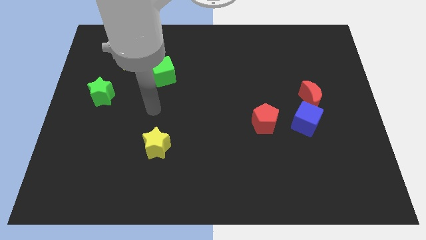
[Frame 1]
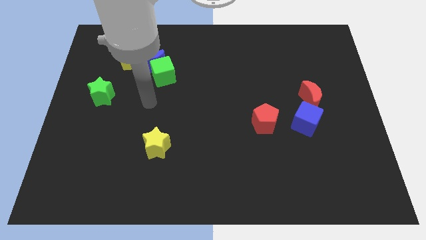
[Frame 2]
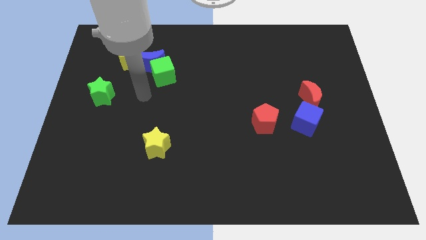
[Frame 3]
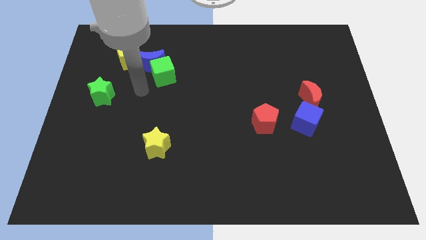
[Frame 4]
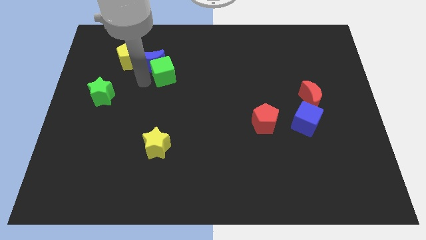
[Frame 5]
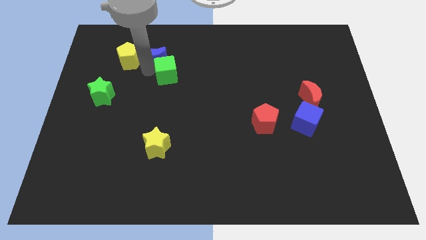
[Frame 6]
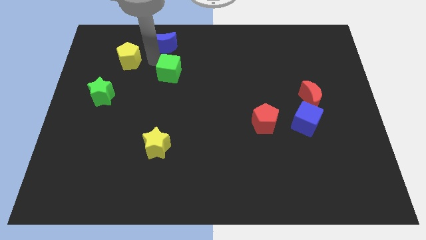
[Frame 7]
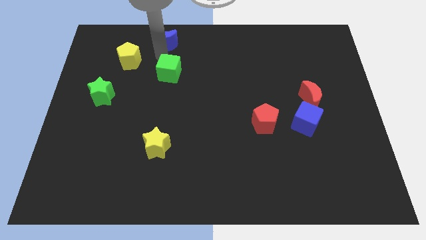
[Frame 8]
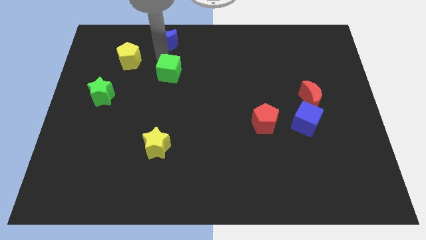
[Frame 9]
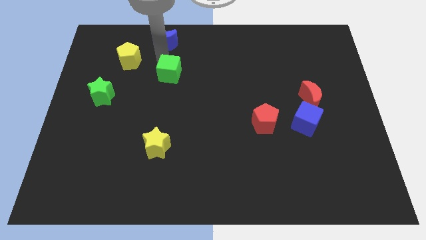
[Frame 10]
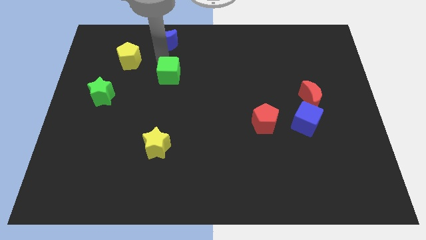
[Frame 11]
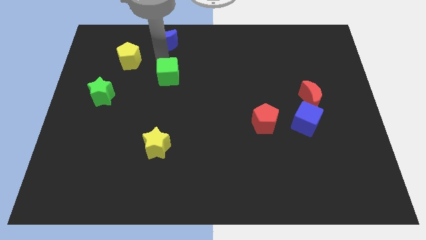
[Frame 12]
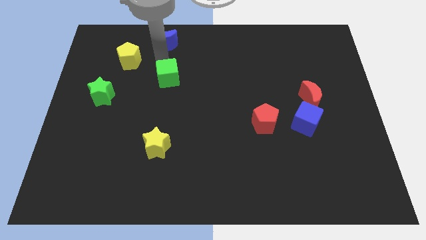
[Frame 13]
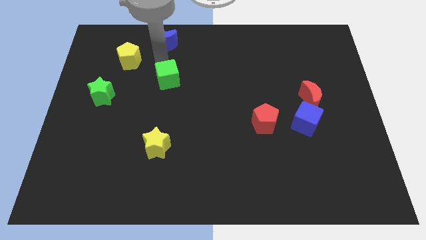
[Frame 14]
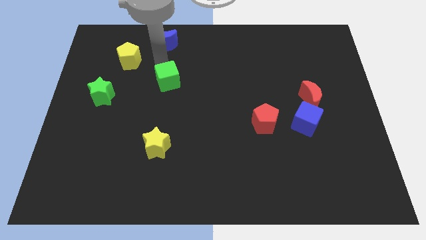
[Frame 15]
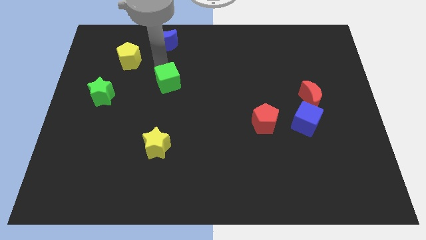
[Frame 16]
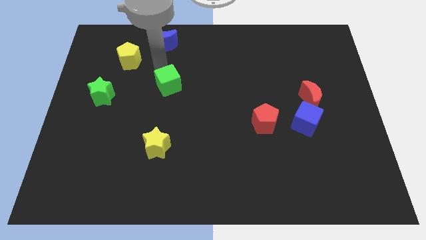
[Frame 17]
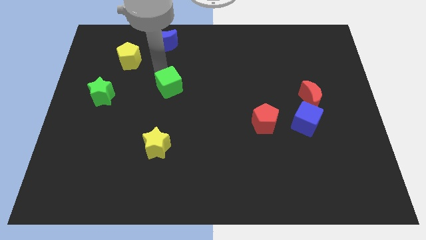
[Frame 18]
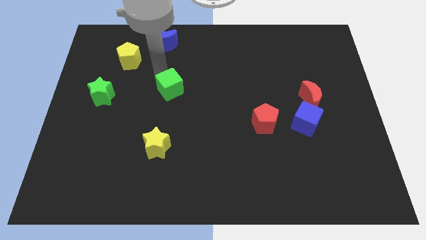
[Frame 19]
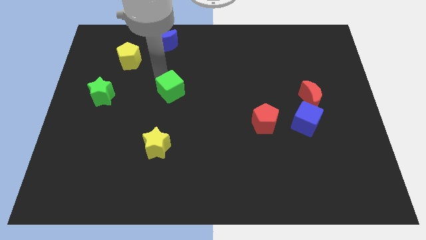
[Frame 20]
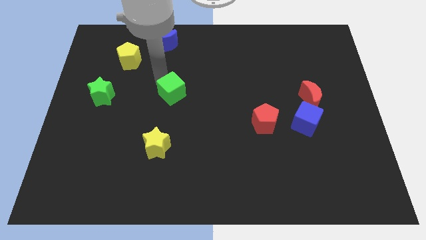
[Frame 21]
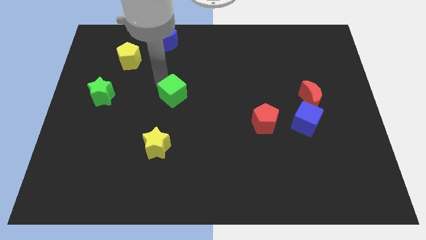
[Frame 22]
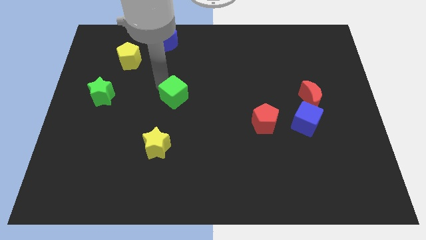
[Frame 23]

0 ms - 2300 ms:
push the green cube diagonally downwards and to the right a bit

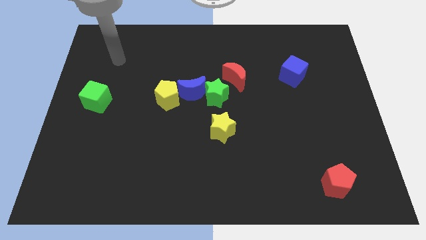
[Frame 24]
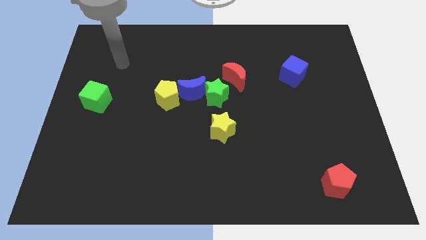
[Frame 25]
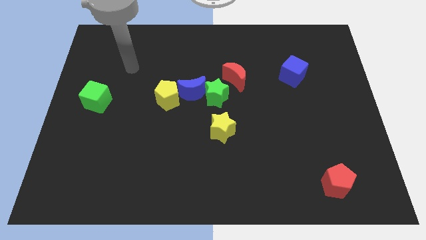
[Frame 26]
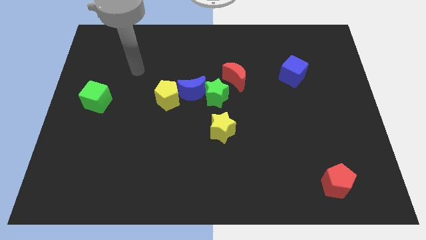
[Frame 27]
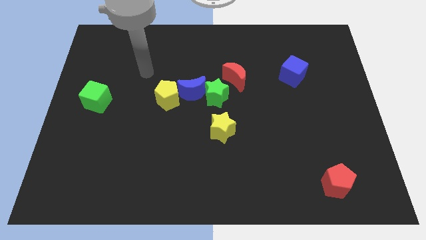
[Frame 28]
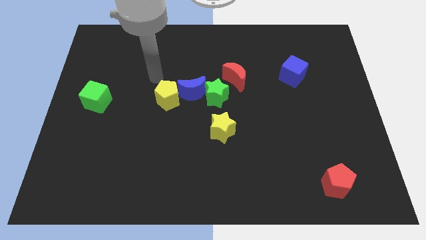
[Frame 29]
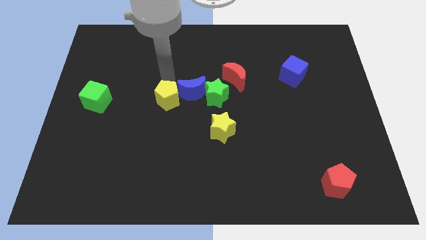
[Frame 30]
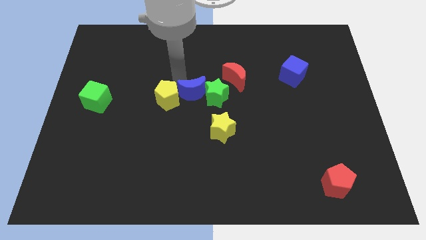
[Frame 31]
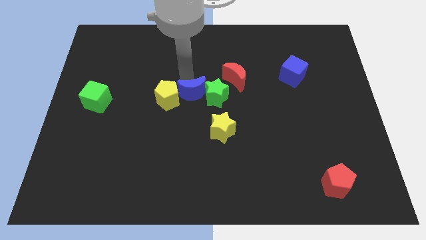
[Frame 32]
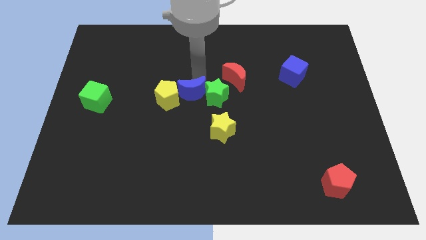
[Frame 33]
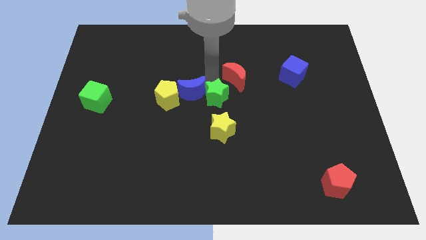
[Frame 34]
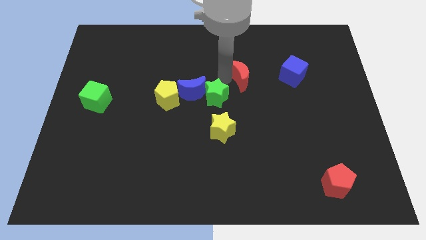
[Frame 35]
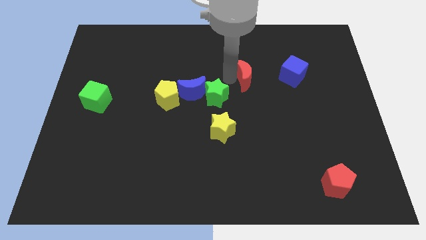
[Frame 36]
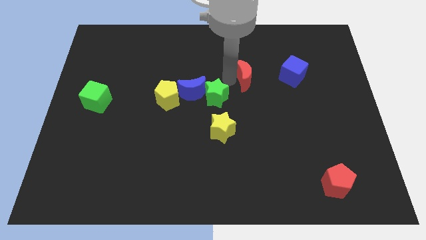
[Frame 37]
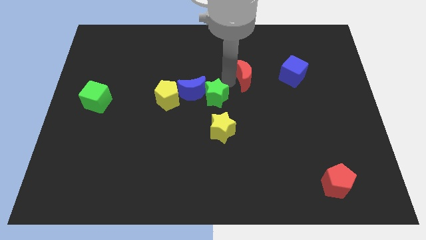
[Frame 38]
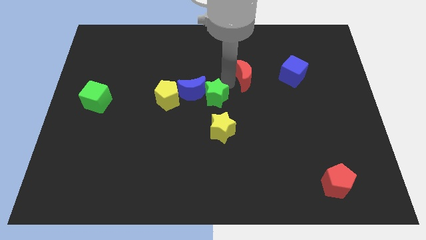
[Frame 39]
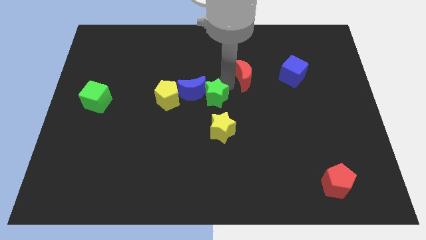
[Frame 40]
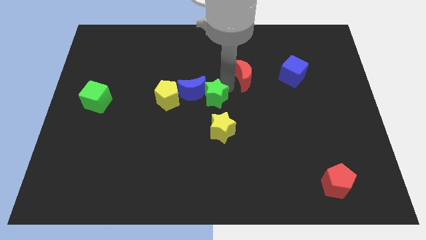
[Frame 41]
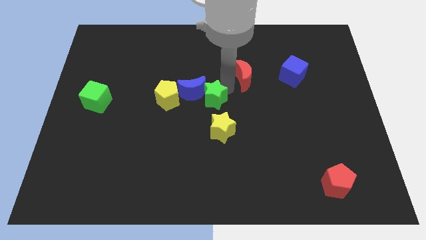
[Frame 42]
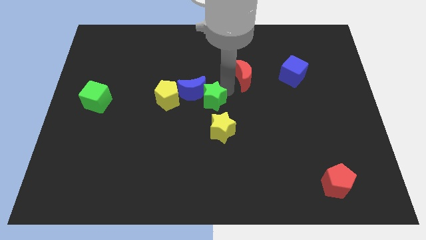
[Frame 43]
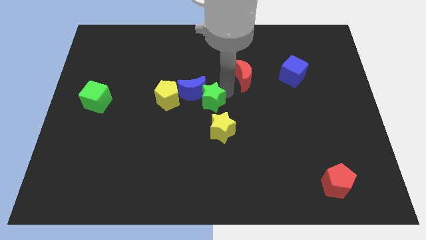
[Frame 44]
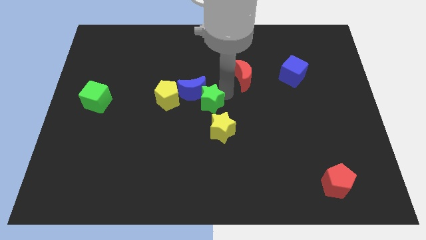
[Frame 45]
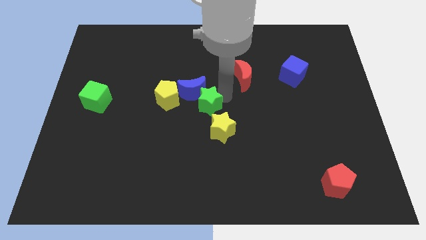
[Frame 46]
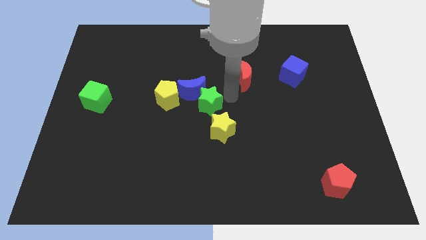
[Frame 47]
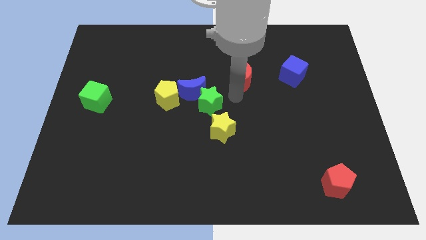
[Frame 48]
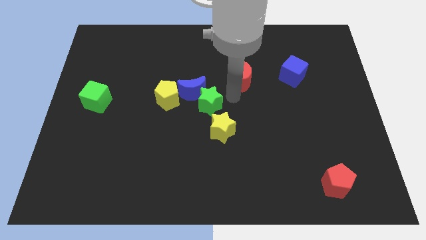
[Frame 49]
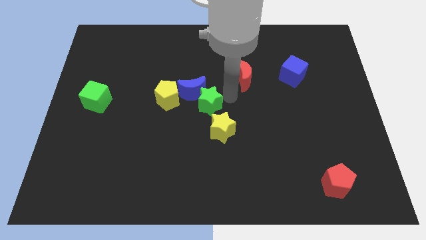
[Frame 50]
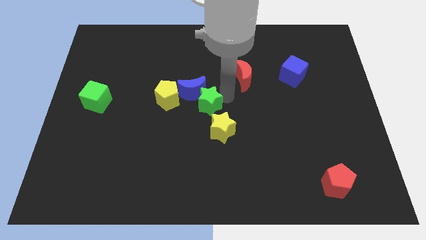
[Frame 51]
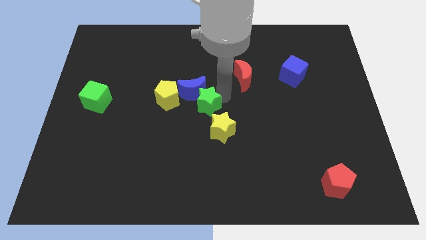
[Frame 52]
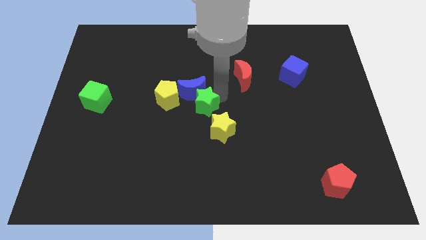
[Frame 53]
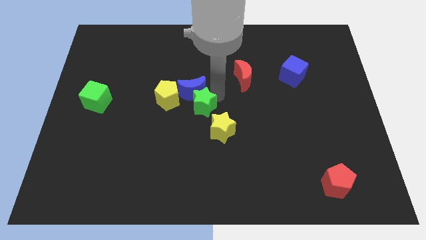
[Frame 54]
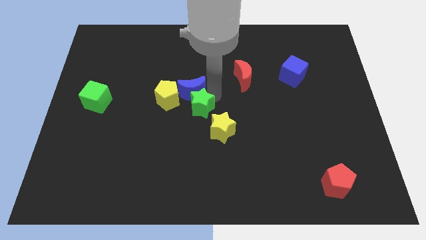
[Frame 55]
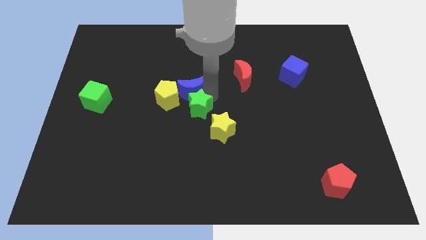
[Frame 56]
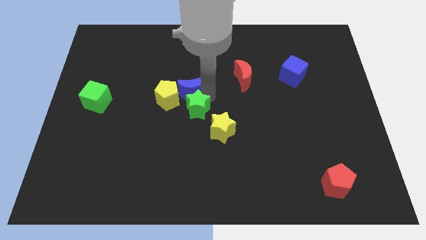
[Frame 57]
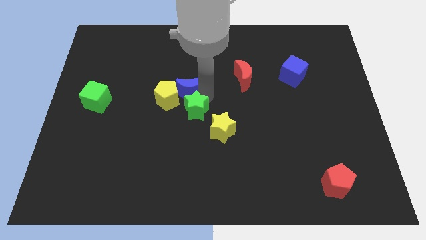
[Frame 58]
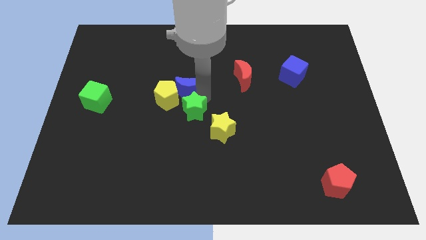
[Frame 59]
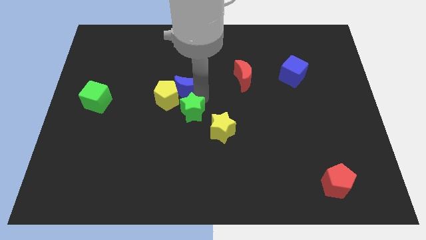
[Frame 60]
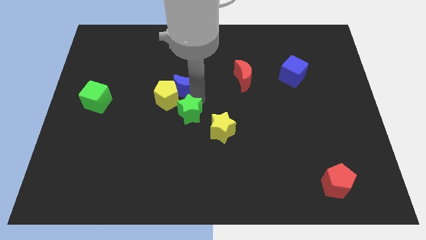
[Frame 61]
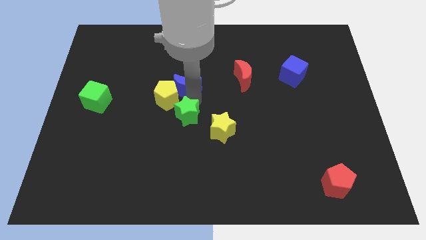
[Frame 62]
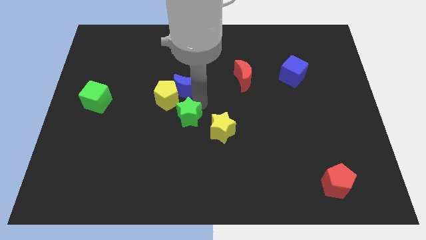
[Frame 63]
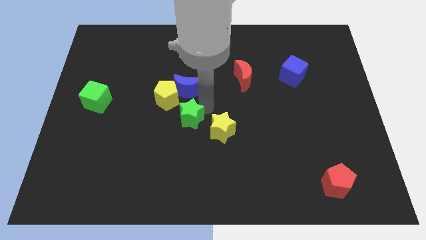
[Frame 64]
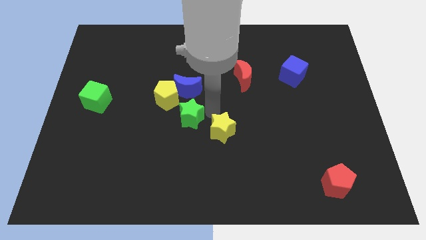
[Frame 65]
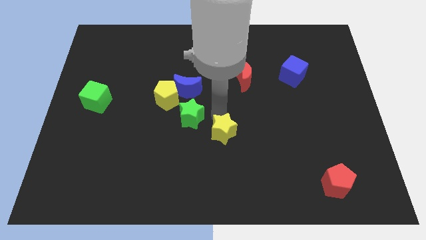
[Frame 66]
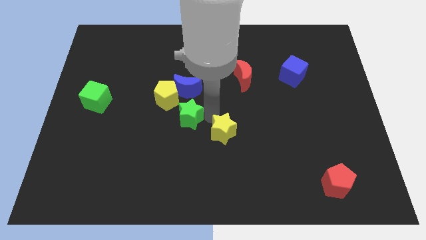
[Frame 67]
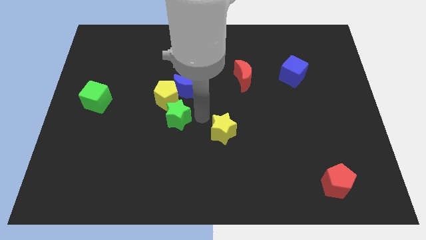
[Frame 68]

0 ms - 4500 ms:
slightly slide the green star to the left

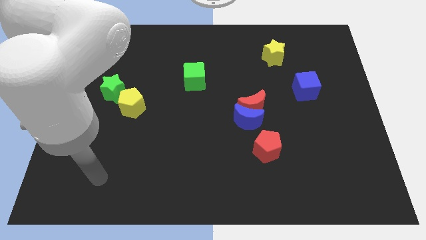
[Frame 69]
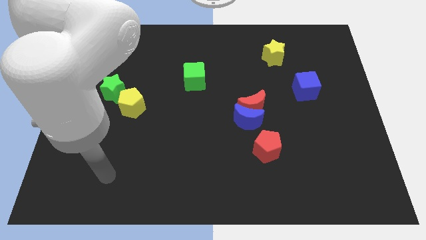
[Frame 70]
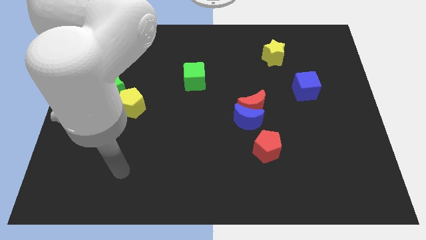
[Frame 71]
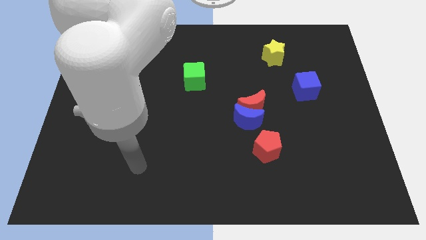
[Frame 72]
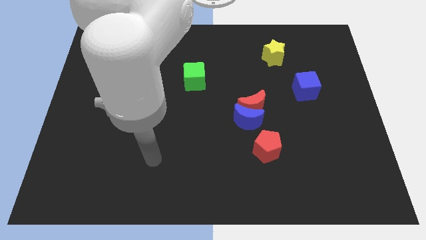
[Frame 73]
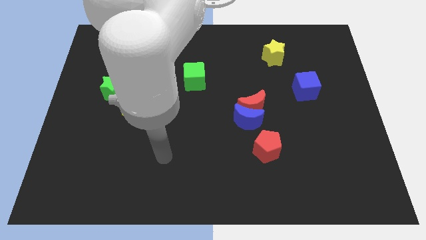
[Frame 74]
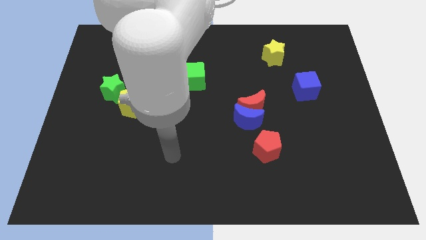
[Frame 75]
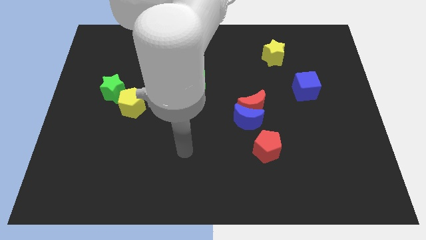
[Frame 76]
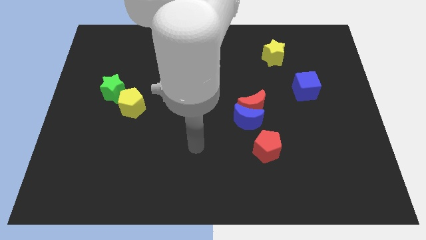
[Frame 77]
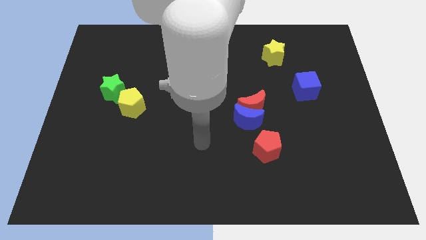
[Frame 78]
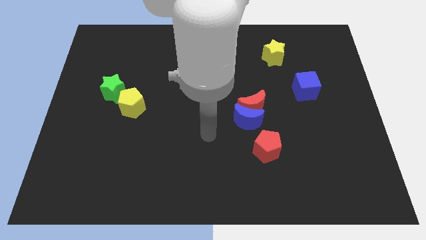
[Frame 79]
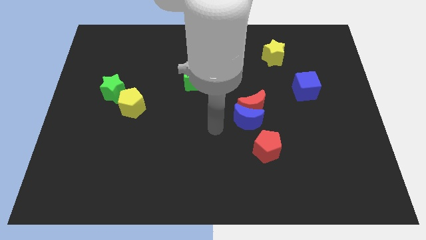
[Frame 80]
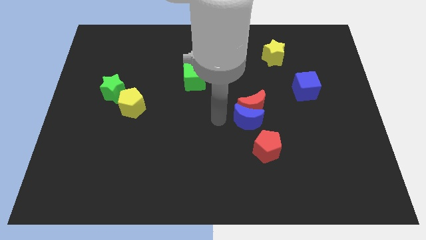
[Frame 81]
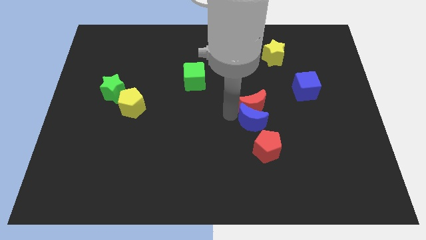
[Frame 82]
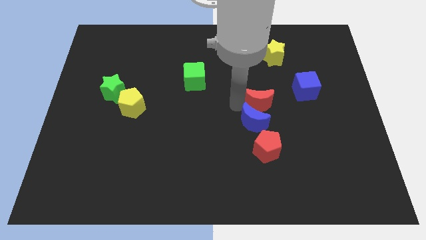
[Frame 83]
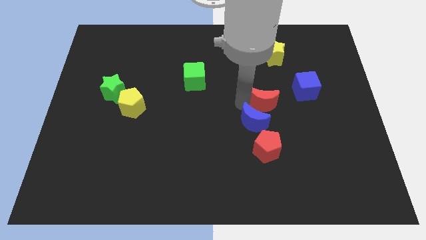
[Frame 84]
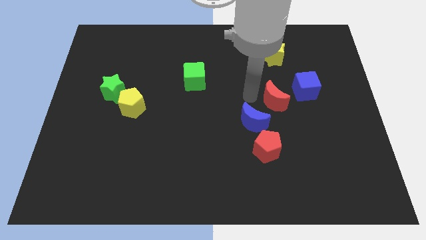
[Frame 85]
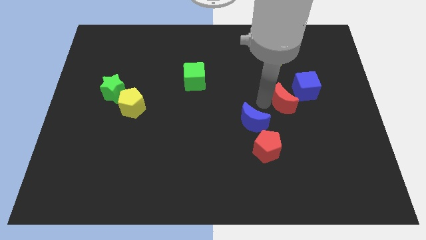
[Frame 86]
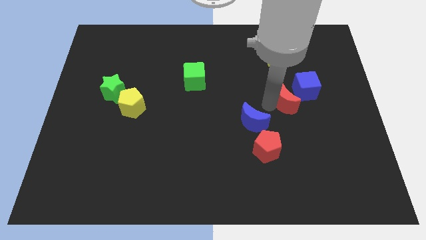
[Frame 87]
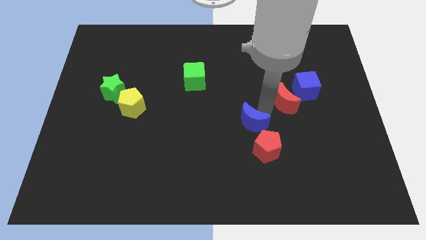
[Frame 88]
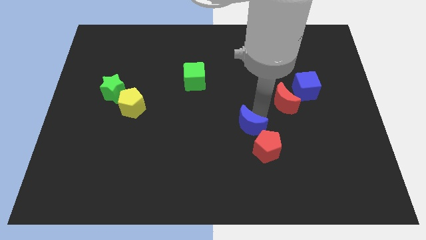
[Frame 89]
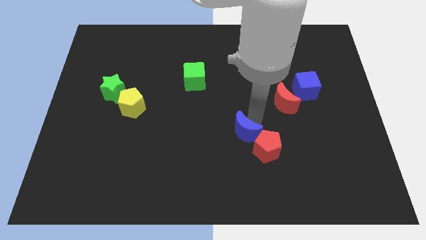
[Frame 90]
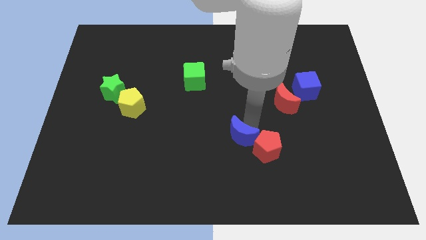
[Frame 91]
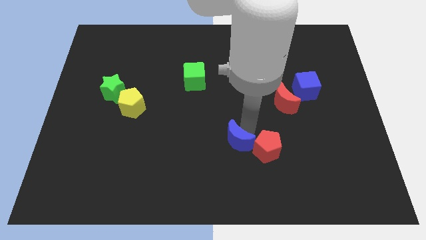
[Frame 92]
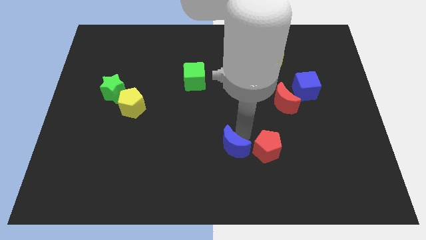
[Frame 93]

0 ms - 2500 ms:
slightly move the blue moon down and to the left diagonally
